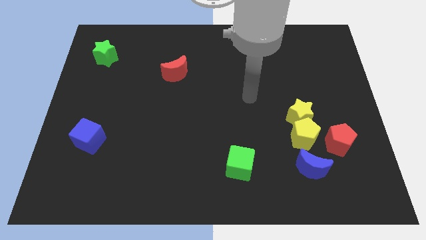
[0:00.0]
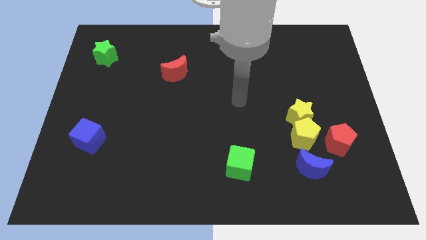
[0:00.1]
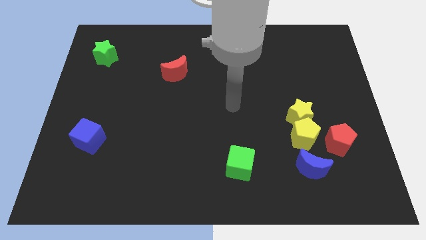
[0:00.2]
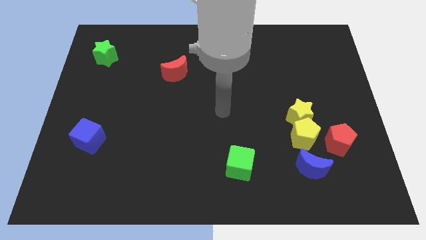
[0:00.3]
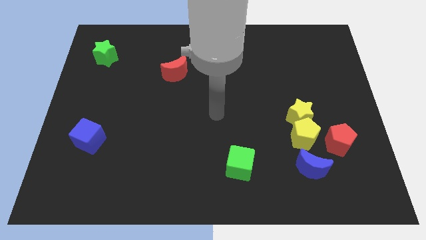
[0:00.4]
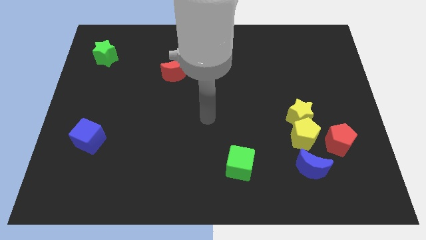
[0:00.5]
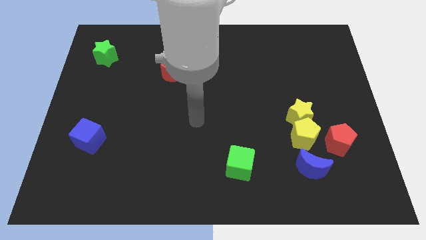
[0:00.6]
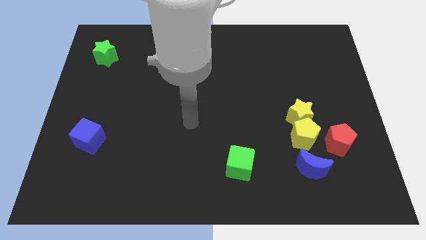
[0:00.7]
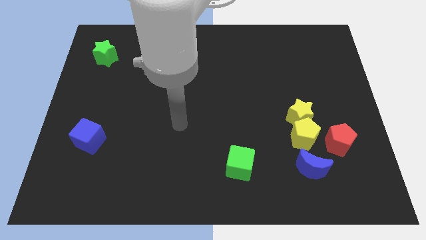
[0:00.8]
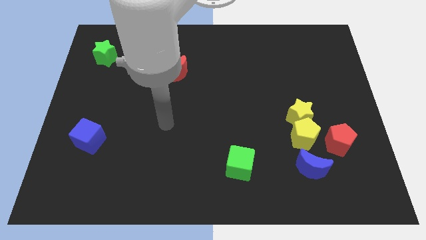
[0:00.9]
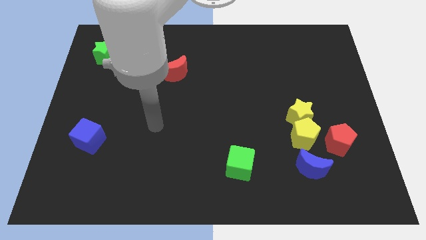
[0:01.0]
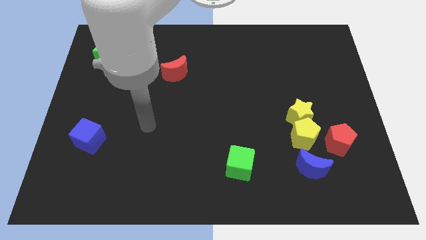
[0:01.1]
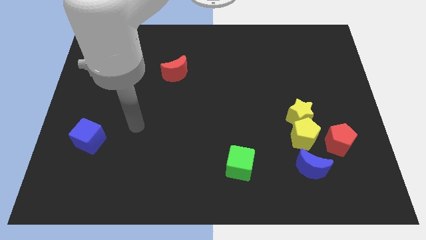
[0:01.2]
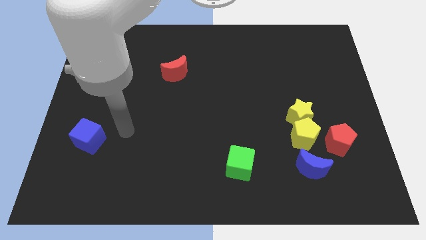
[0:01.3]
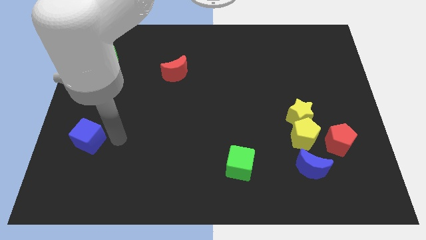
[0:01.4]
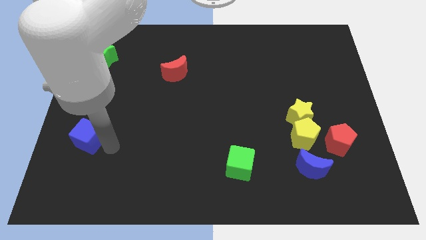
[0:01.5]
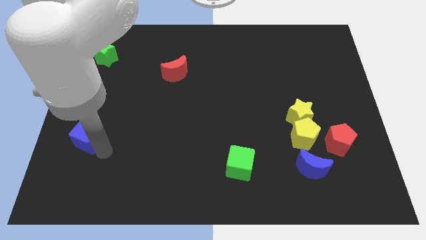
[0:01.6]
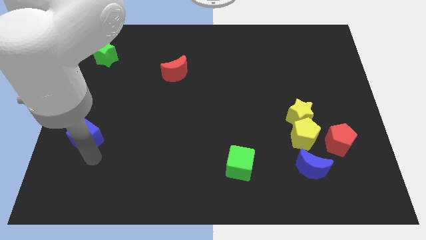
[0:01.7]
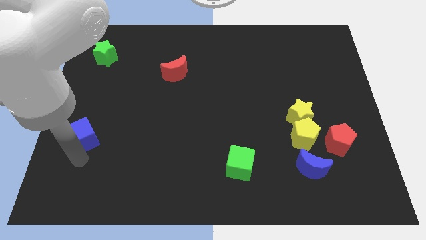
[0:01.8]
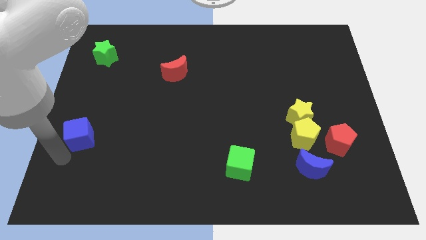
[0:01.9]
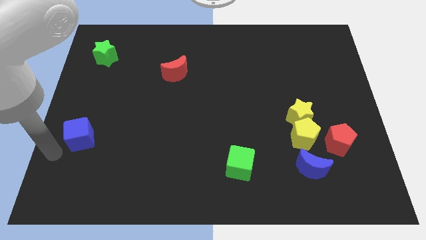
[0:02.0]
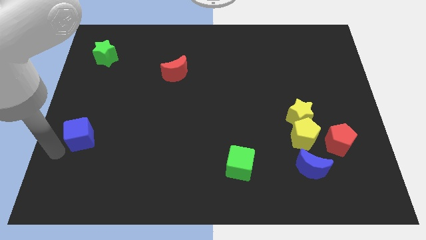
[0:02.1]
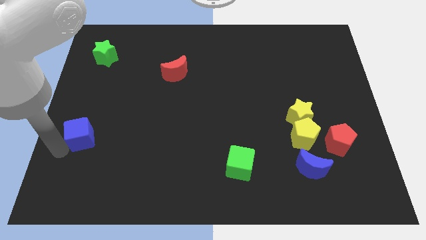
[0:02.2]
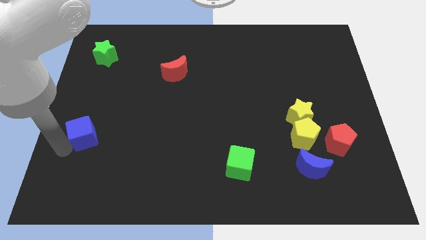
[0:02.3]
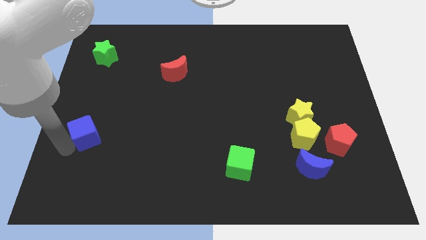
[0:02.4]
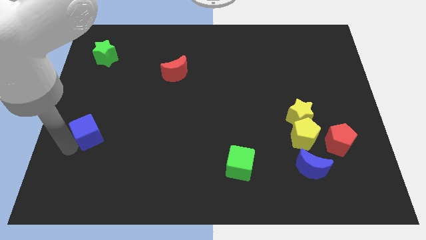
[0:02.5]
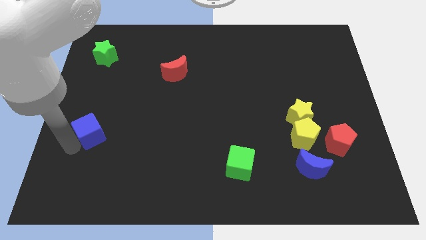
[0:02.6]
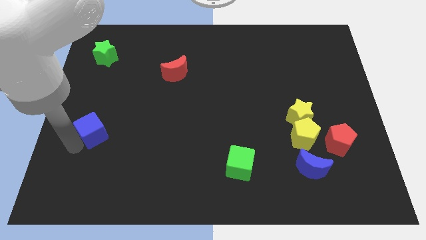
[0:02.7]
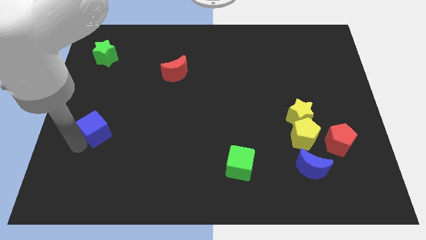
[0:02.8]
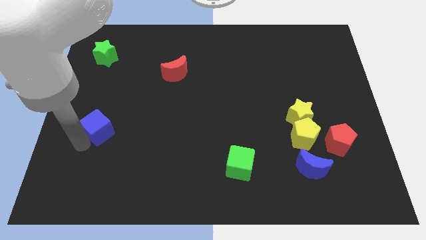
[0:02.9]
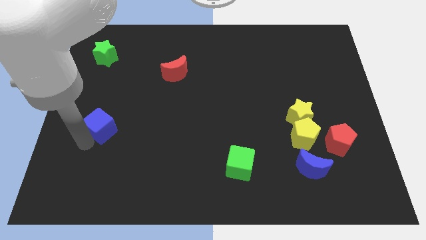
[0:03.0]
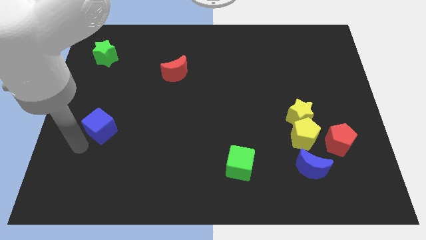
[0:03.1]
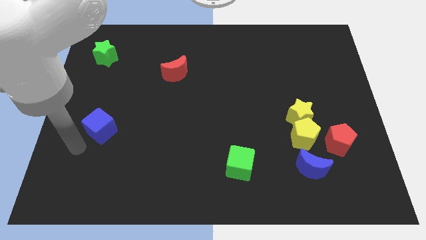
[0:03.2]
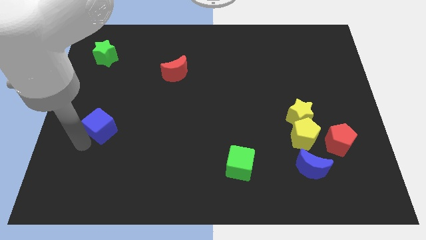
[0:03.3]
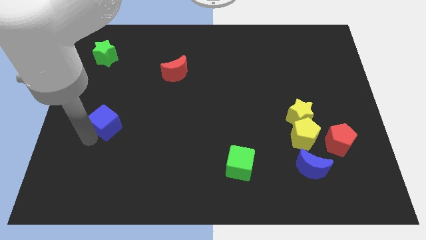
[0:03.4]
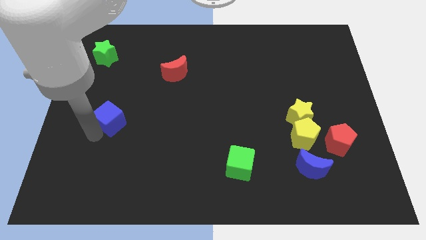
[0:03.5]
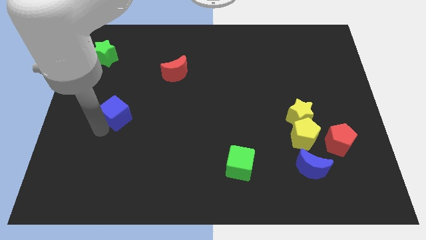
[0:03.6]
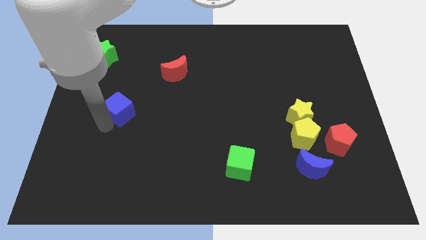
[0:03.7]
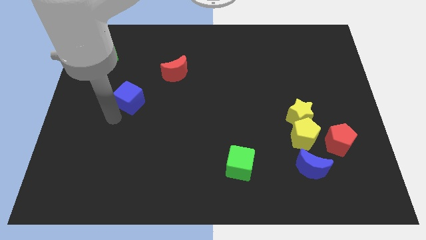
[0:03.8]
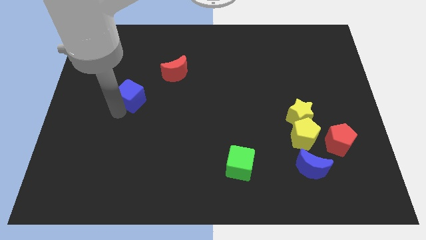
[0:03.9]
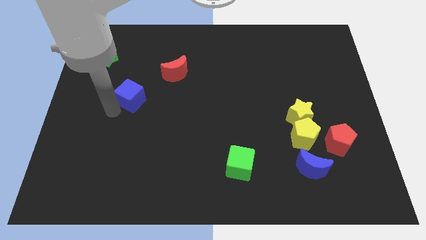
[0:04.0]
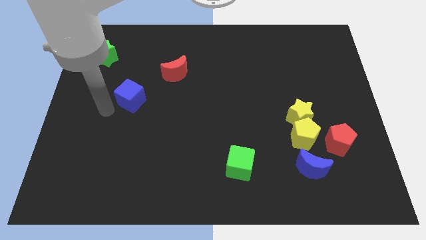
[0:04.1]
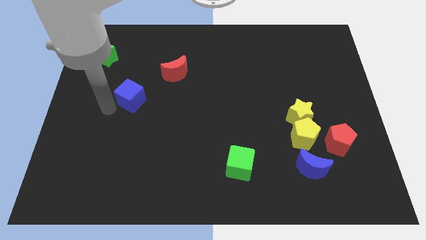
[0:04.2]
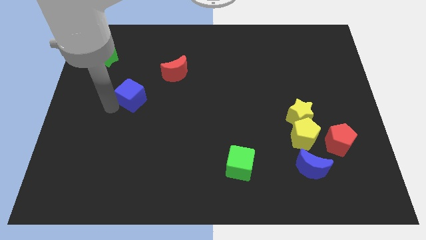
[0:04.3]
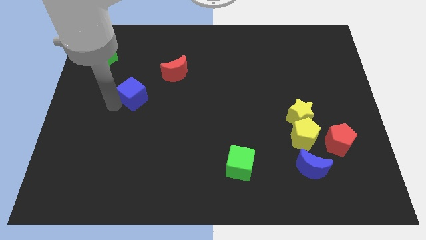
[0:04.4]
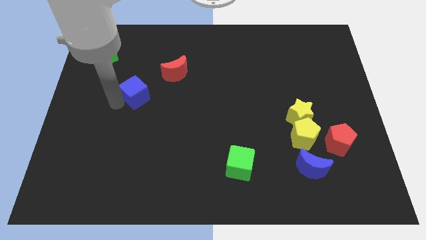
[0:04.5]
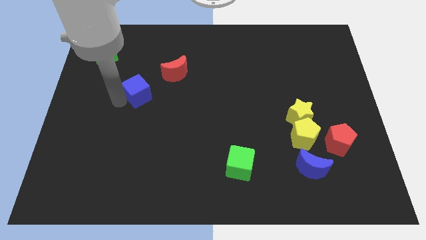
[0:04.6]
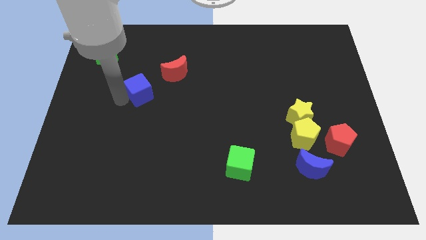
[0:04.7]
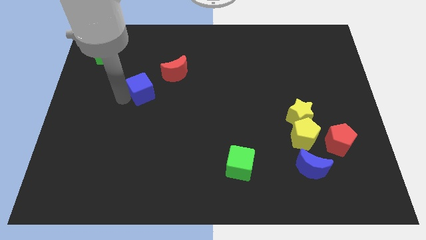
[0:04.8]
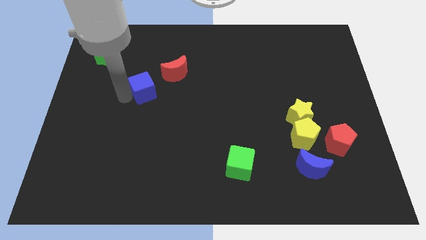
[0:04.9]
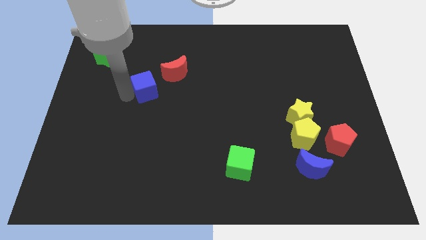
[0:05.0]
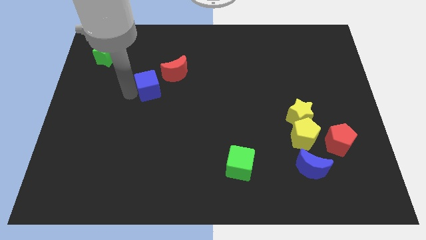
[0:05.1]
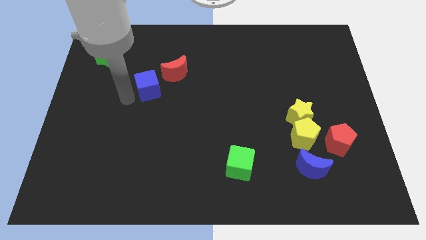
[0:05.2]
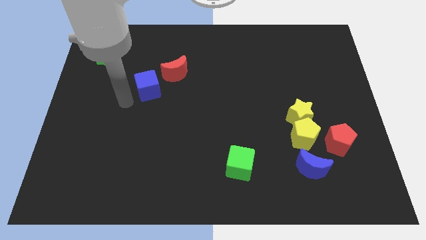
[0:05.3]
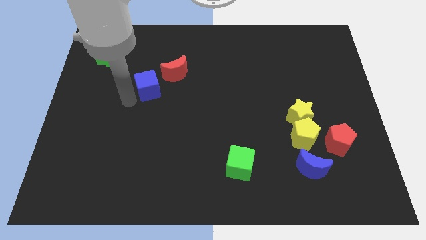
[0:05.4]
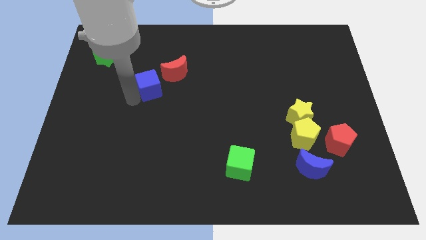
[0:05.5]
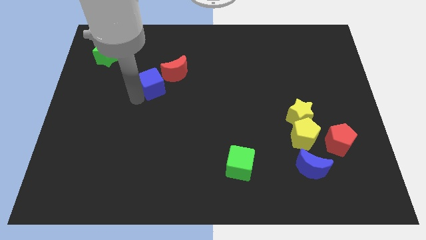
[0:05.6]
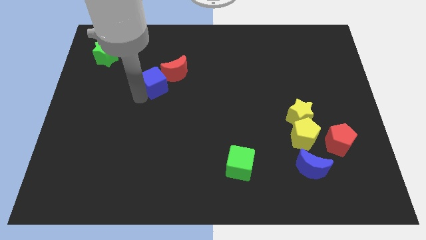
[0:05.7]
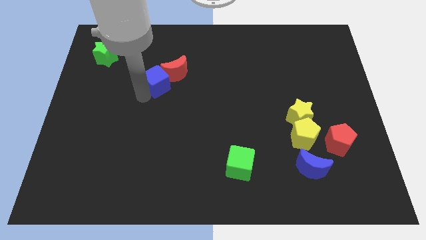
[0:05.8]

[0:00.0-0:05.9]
put the blue cube towards the red moon
